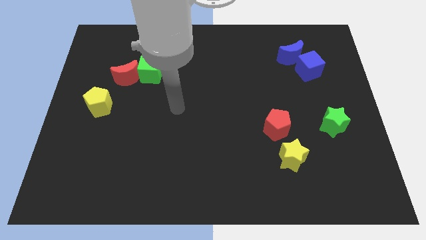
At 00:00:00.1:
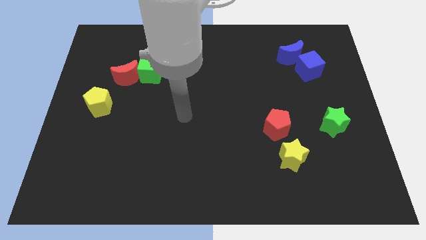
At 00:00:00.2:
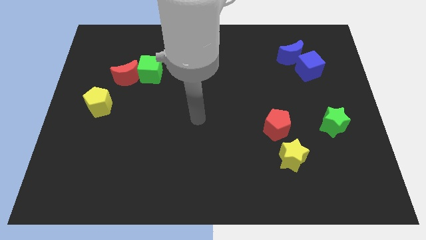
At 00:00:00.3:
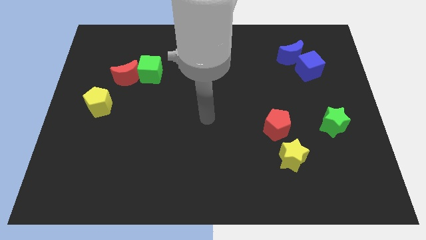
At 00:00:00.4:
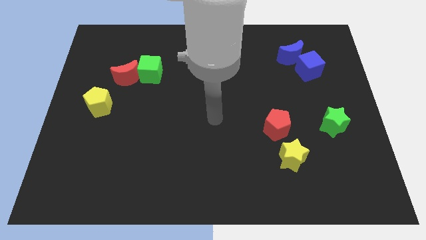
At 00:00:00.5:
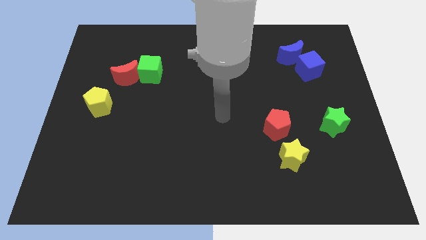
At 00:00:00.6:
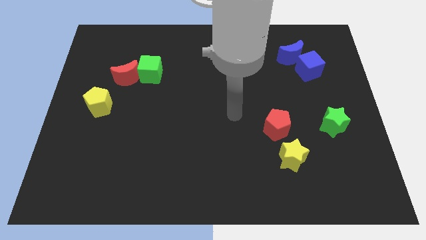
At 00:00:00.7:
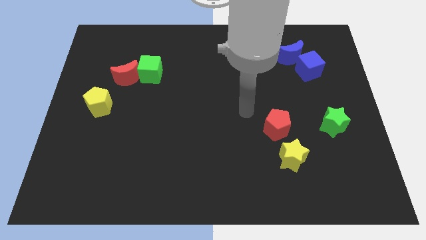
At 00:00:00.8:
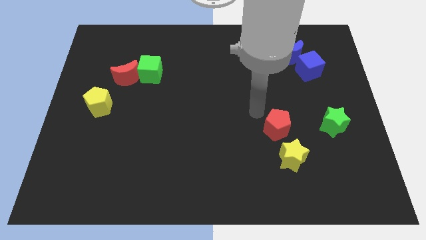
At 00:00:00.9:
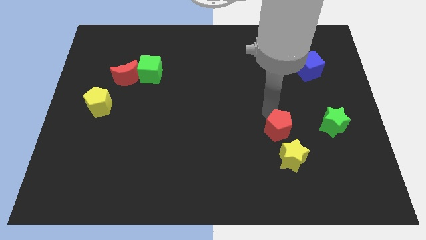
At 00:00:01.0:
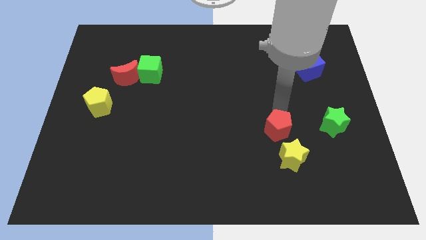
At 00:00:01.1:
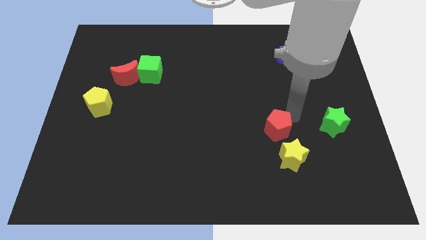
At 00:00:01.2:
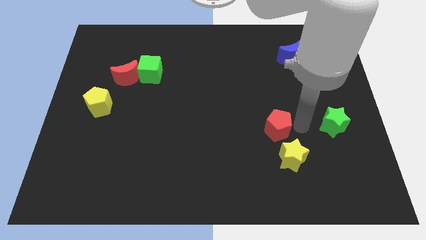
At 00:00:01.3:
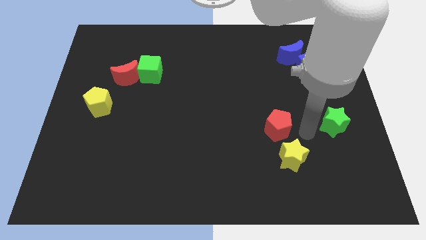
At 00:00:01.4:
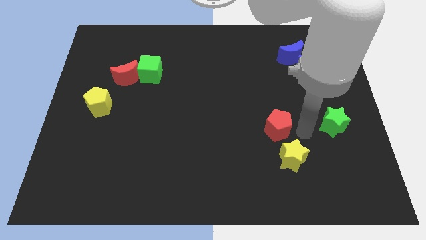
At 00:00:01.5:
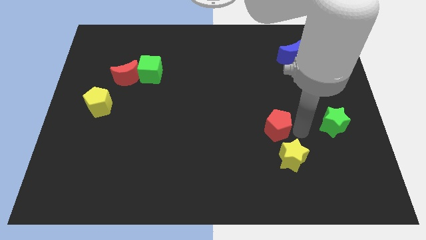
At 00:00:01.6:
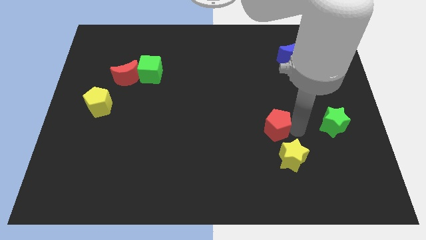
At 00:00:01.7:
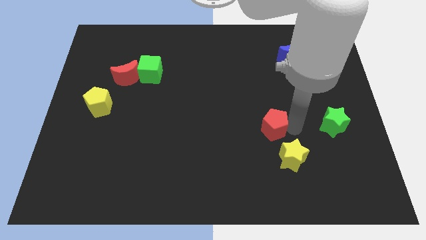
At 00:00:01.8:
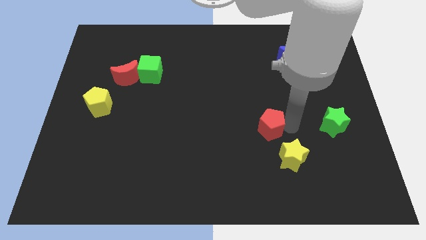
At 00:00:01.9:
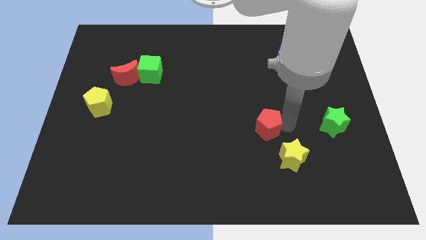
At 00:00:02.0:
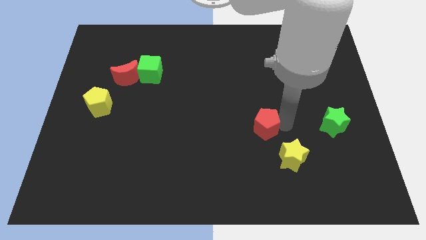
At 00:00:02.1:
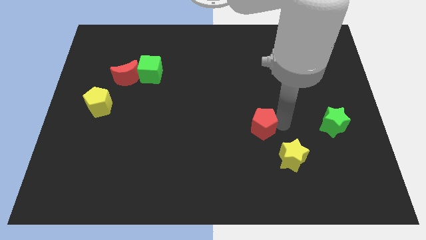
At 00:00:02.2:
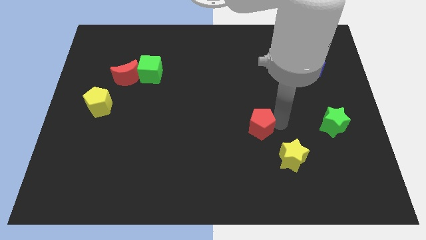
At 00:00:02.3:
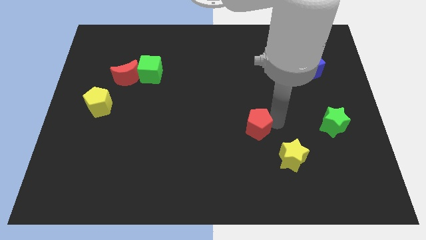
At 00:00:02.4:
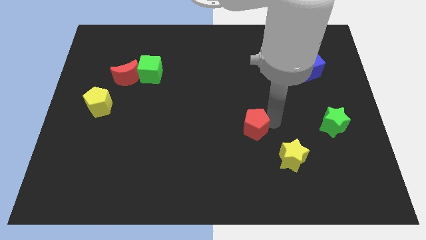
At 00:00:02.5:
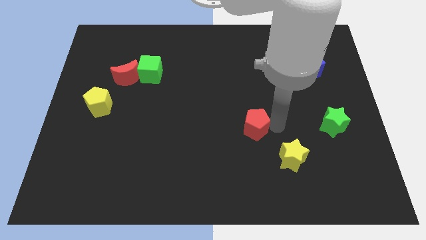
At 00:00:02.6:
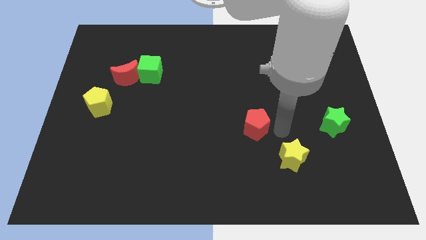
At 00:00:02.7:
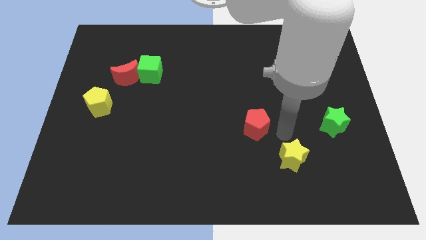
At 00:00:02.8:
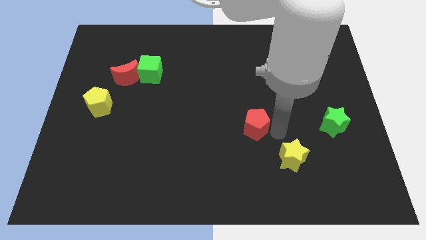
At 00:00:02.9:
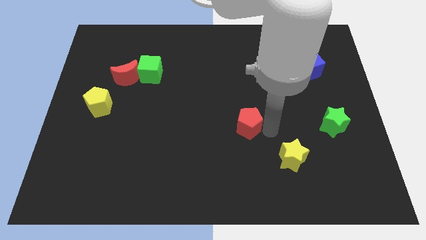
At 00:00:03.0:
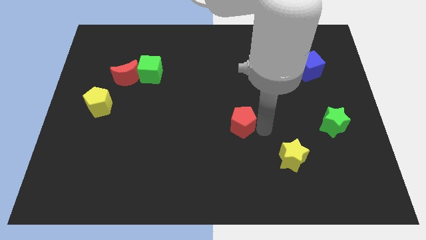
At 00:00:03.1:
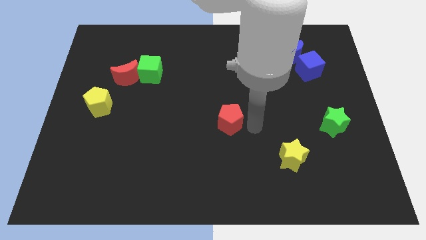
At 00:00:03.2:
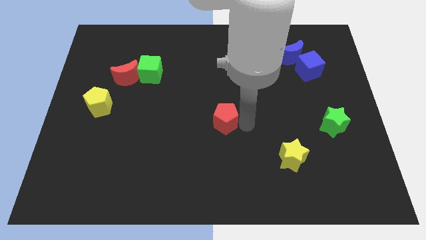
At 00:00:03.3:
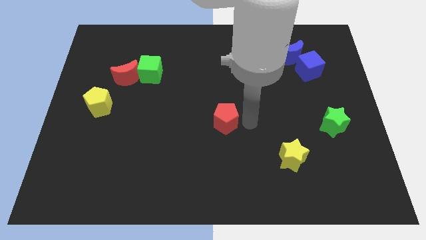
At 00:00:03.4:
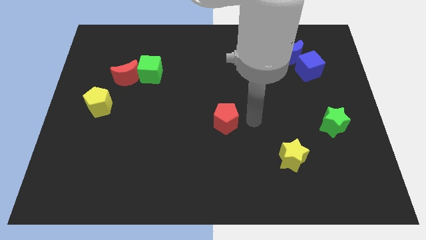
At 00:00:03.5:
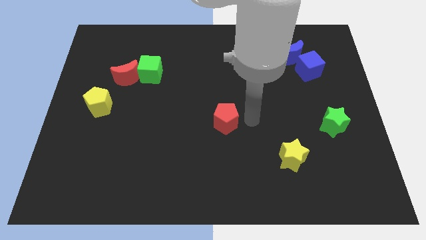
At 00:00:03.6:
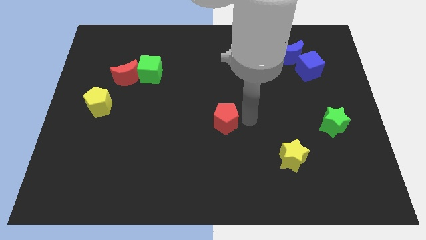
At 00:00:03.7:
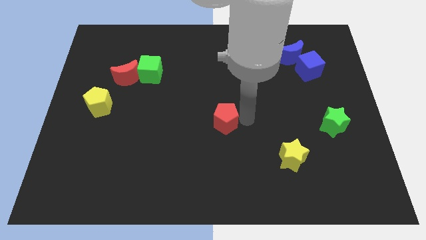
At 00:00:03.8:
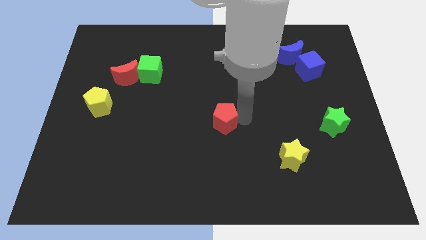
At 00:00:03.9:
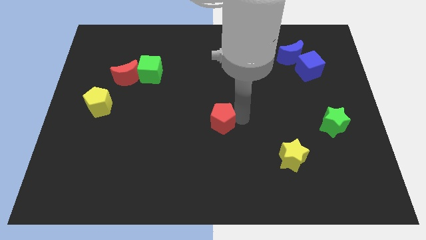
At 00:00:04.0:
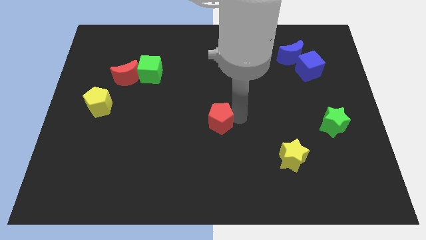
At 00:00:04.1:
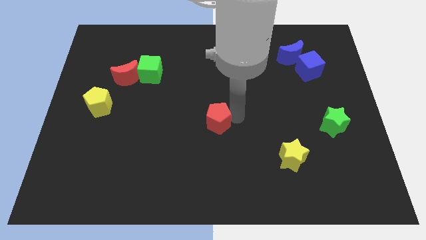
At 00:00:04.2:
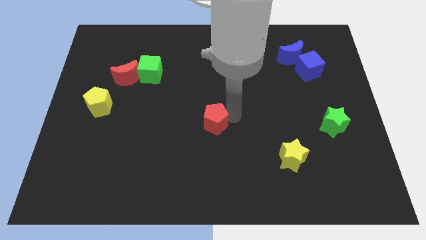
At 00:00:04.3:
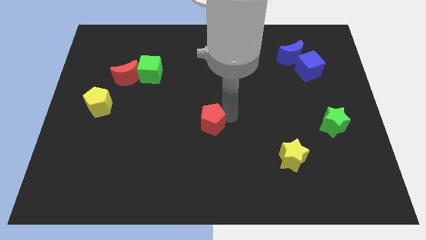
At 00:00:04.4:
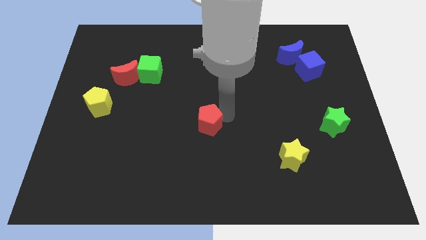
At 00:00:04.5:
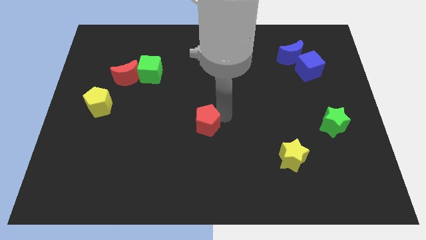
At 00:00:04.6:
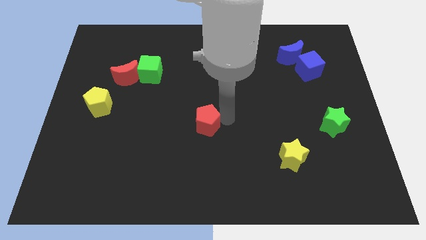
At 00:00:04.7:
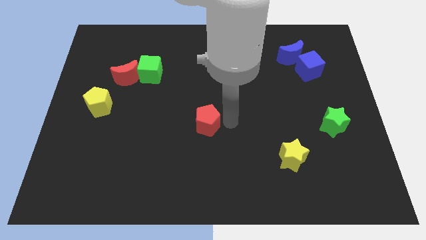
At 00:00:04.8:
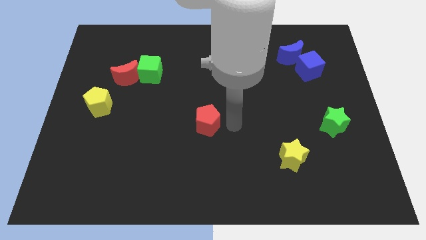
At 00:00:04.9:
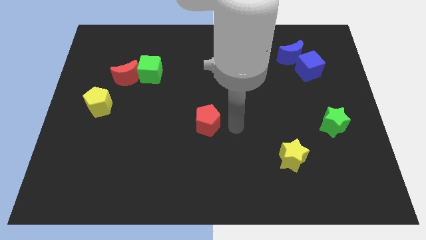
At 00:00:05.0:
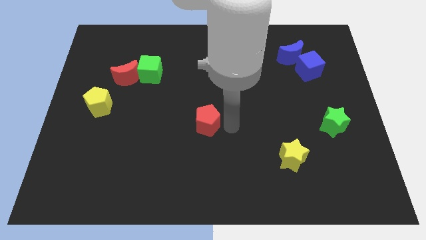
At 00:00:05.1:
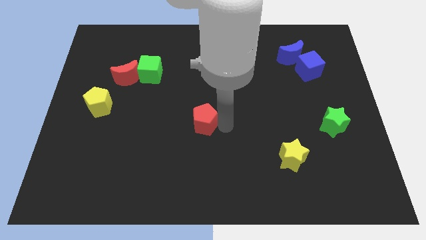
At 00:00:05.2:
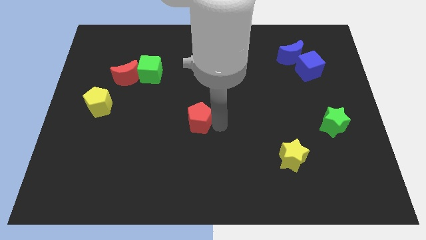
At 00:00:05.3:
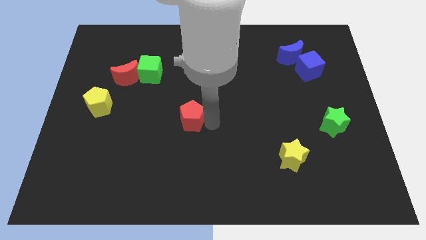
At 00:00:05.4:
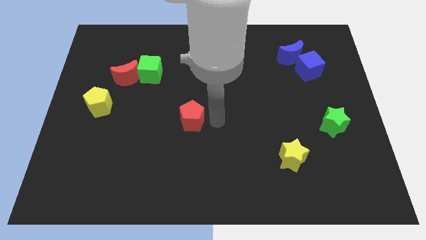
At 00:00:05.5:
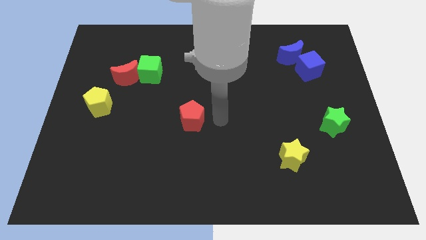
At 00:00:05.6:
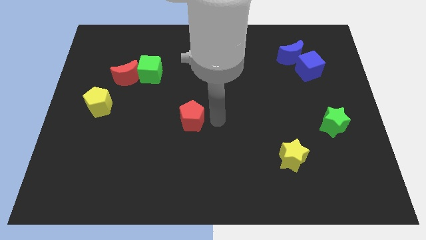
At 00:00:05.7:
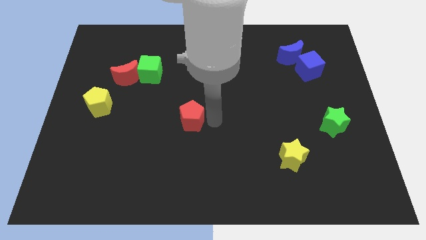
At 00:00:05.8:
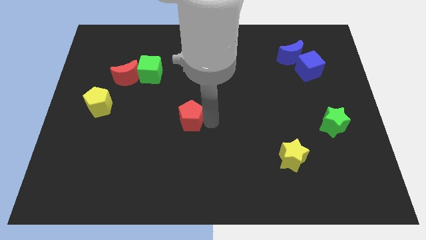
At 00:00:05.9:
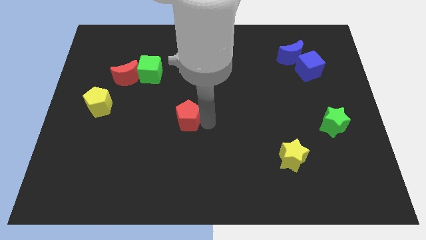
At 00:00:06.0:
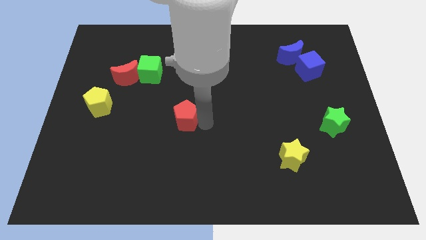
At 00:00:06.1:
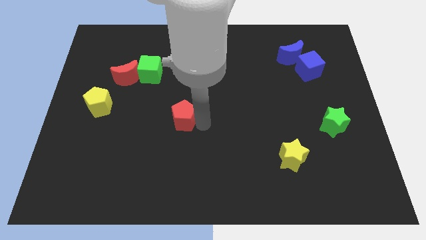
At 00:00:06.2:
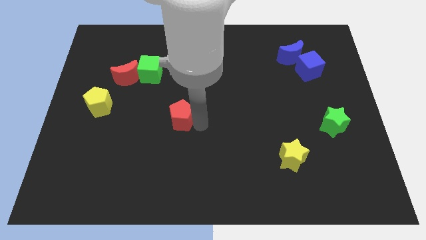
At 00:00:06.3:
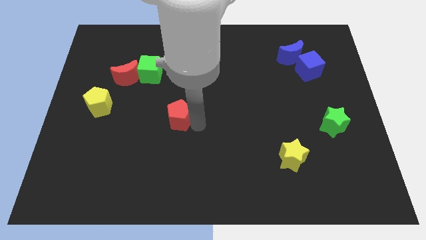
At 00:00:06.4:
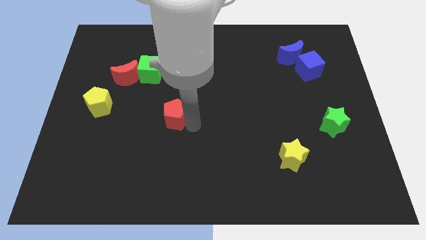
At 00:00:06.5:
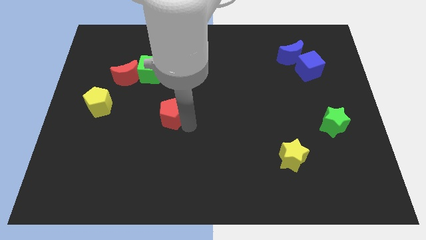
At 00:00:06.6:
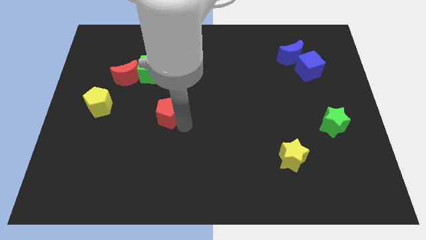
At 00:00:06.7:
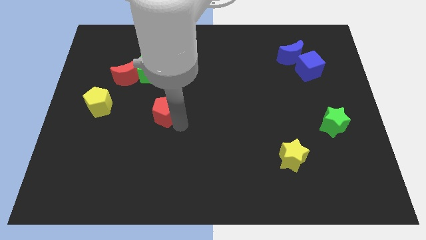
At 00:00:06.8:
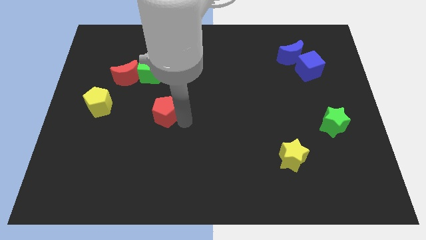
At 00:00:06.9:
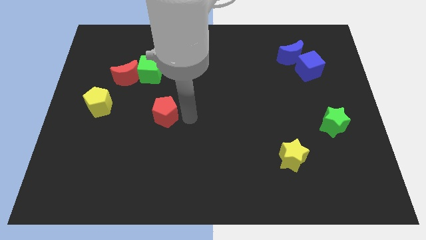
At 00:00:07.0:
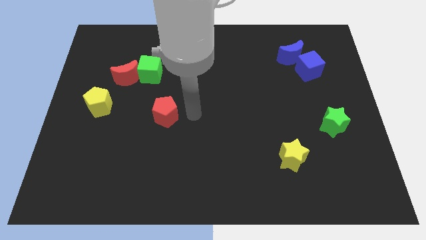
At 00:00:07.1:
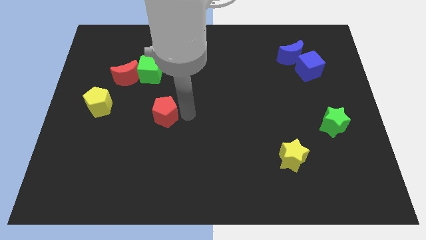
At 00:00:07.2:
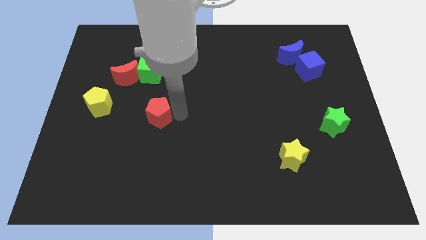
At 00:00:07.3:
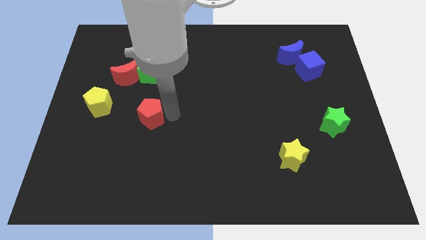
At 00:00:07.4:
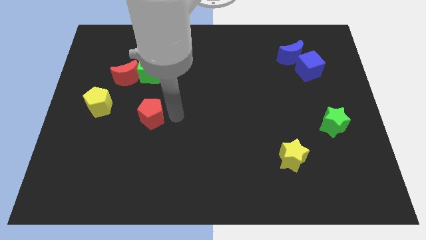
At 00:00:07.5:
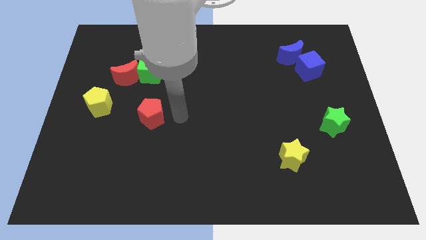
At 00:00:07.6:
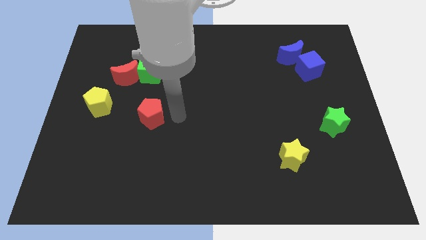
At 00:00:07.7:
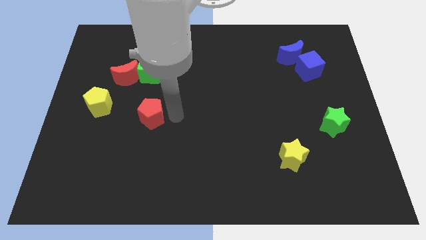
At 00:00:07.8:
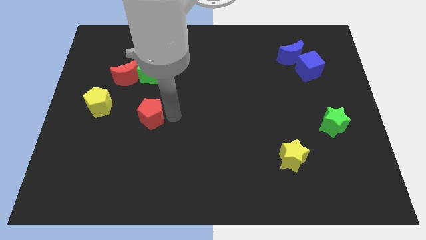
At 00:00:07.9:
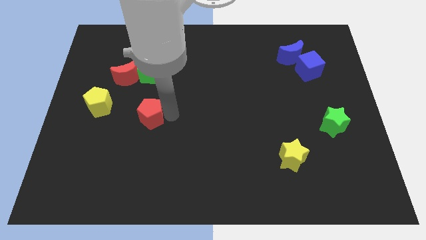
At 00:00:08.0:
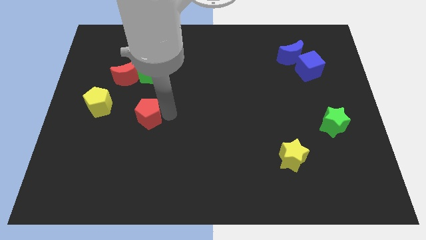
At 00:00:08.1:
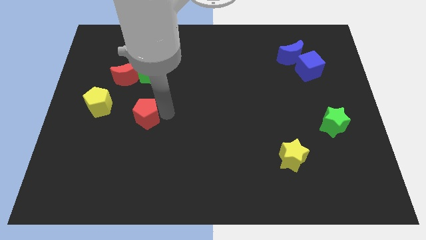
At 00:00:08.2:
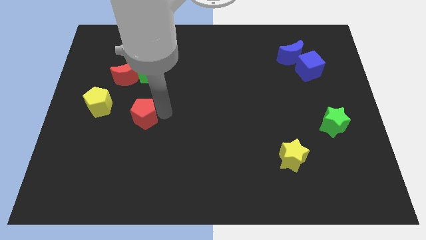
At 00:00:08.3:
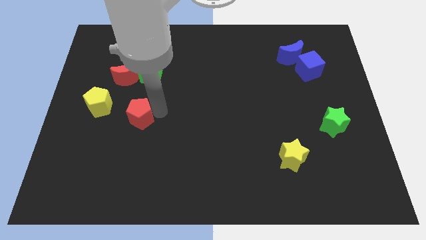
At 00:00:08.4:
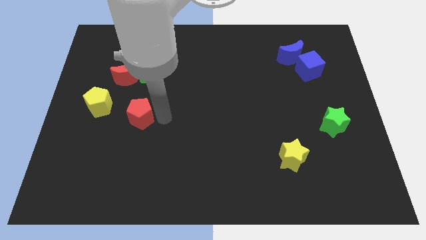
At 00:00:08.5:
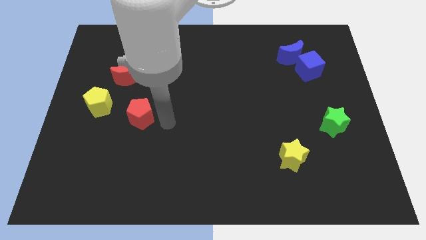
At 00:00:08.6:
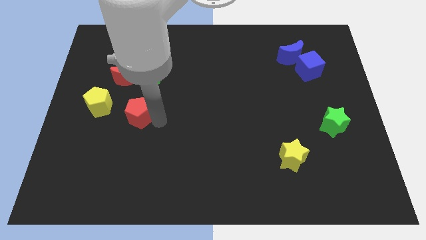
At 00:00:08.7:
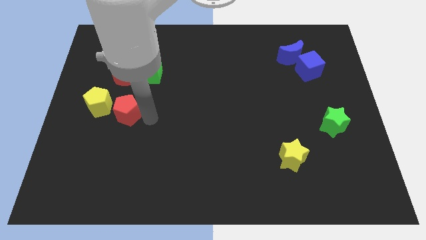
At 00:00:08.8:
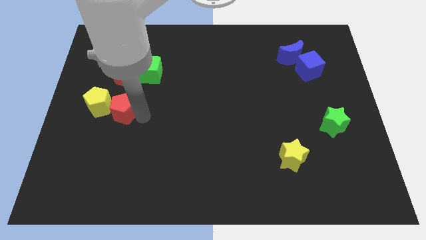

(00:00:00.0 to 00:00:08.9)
move the red pentagon close to the yellow pentagon
